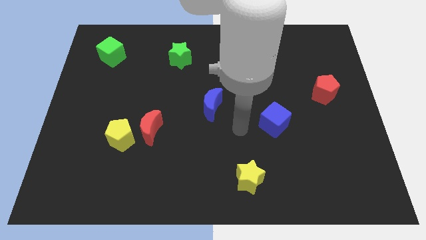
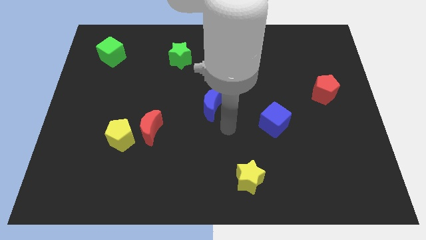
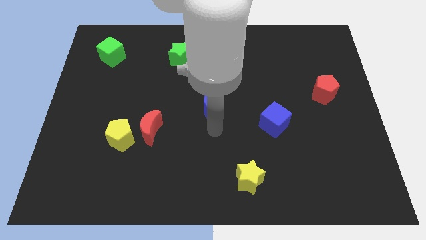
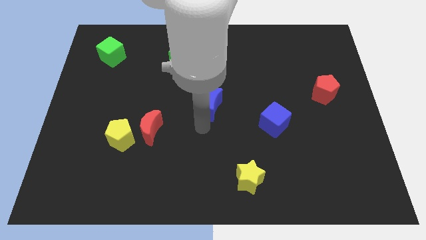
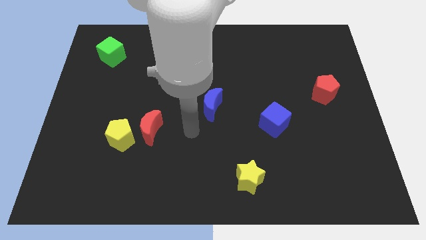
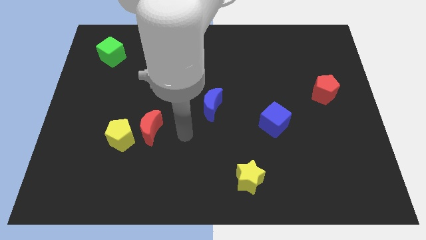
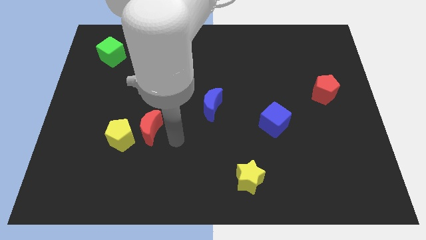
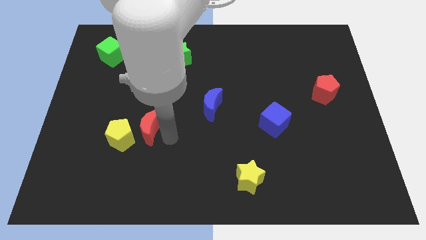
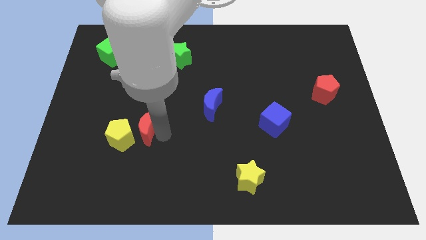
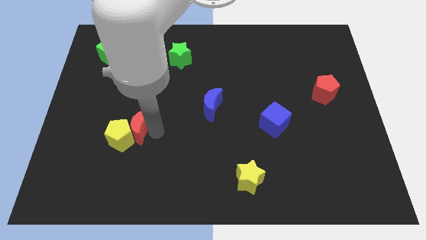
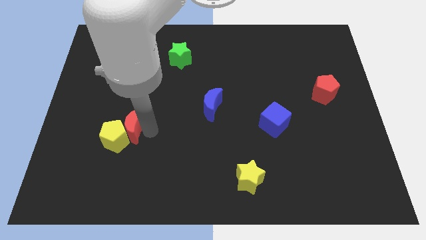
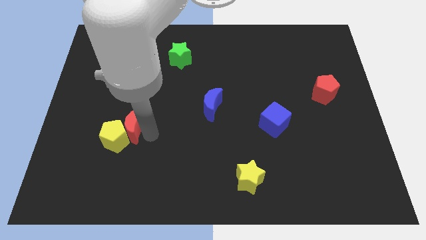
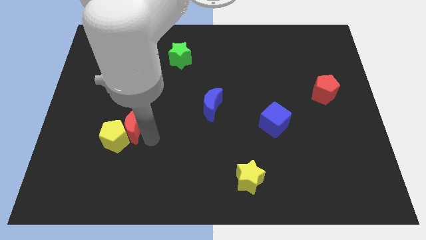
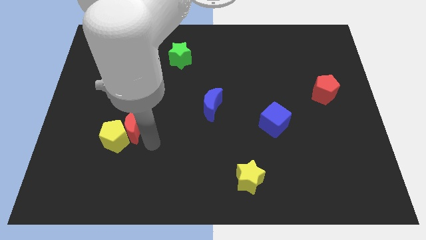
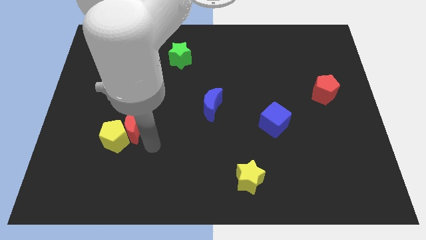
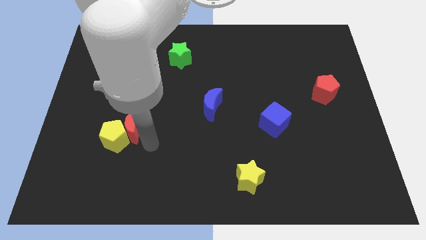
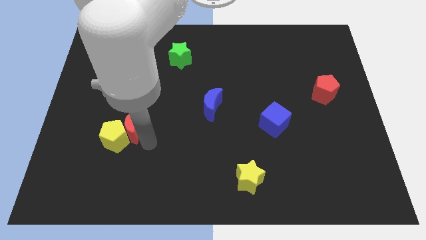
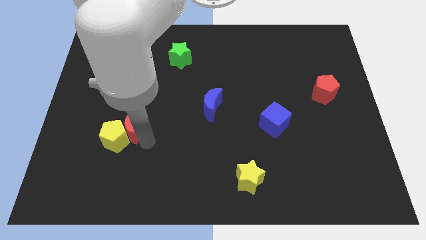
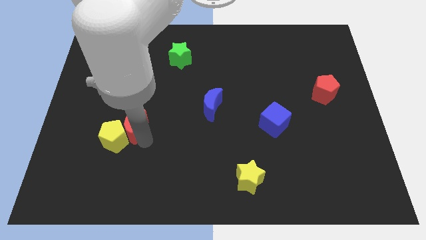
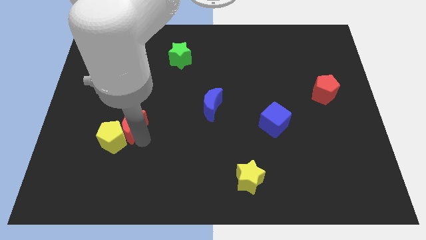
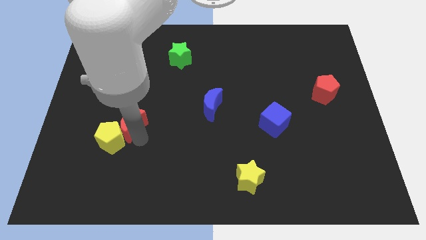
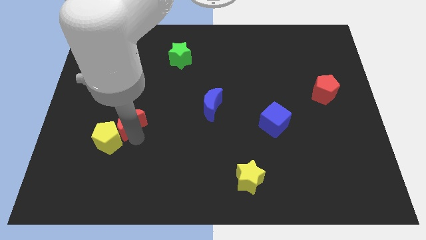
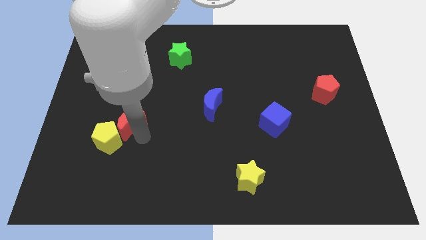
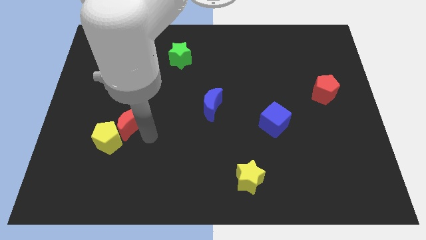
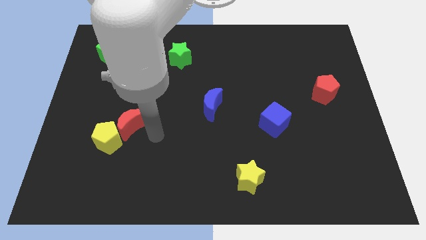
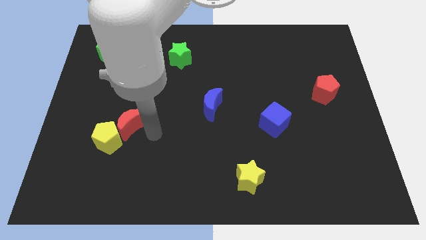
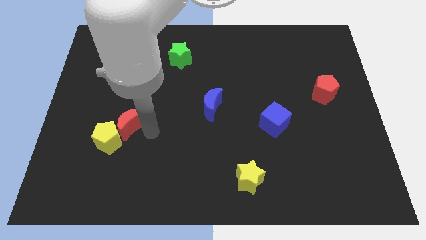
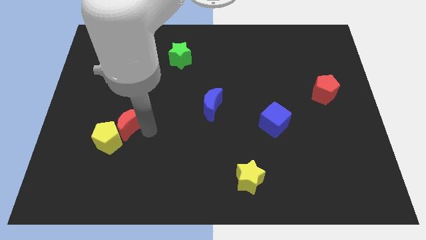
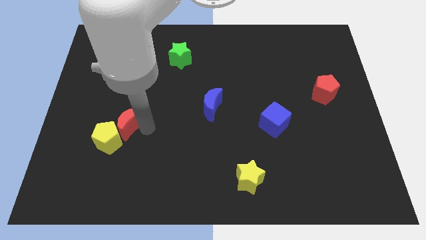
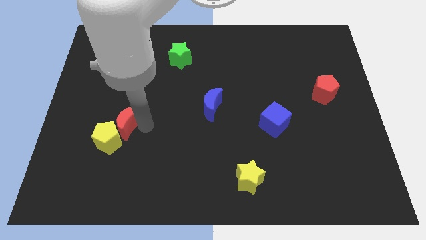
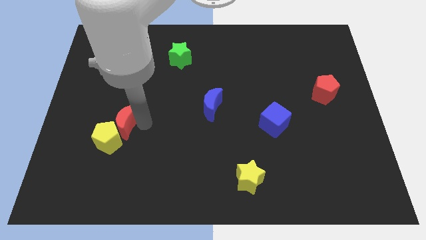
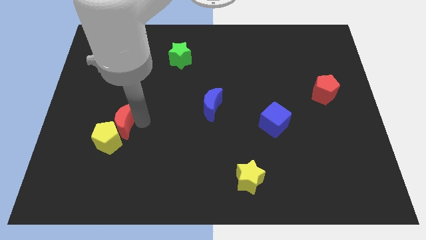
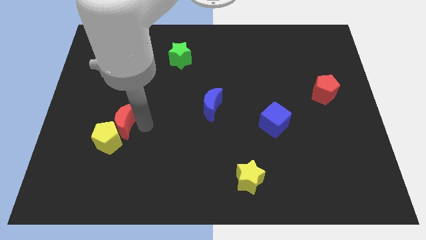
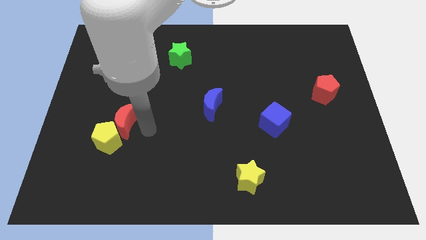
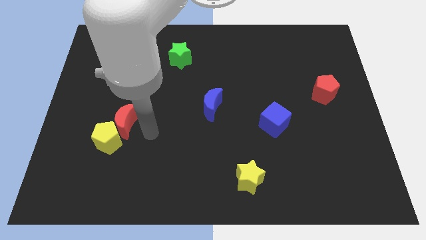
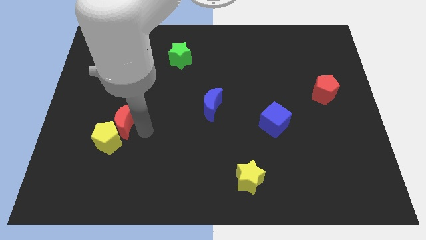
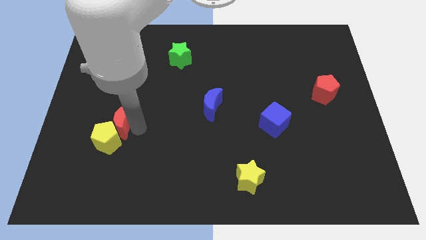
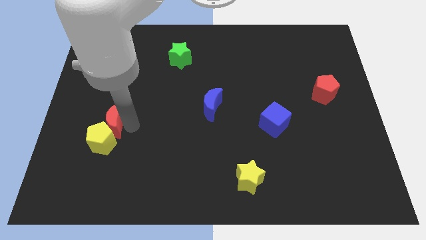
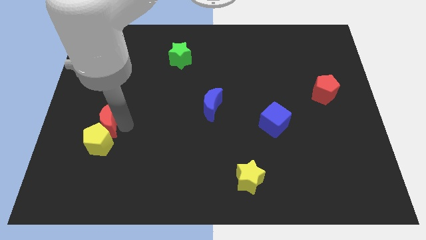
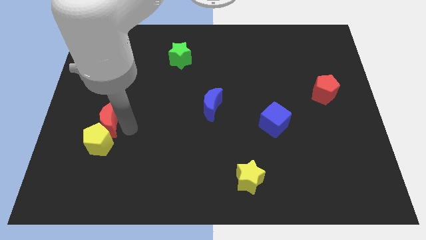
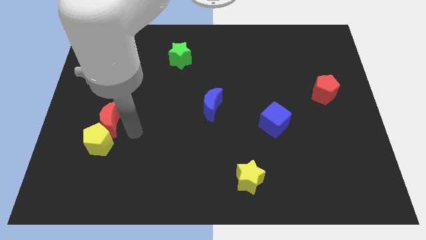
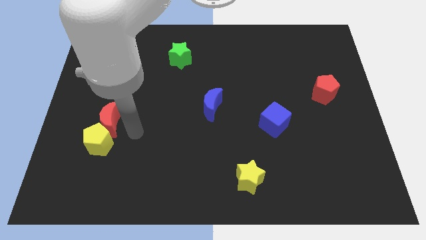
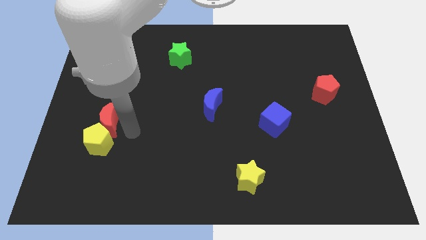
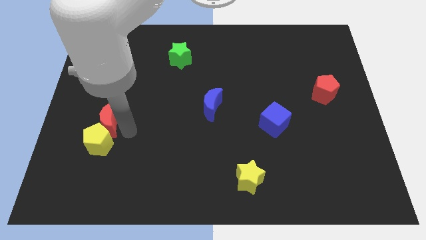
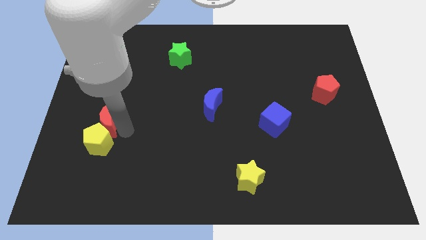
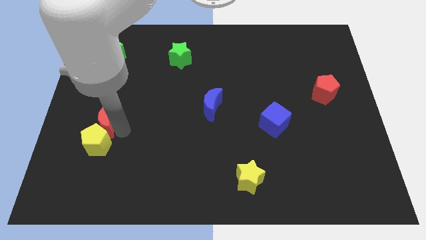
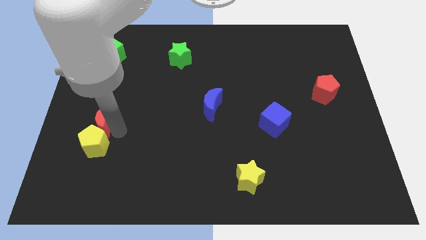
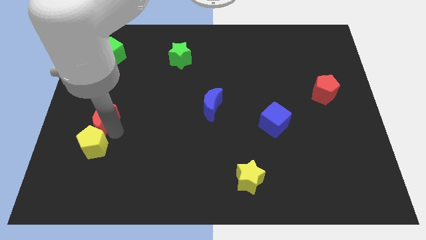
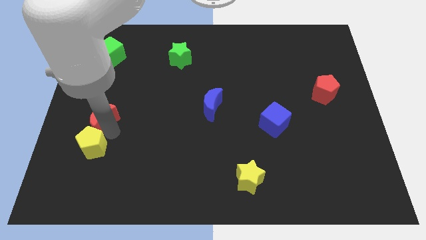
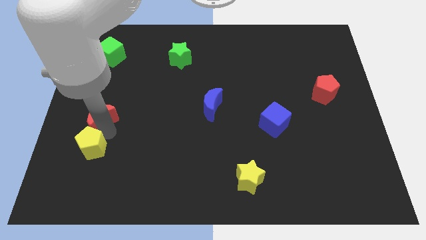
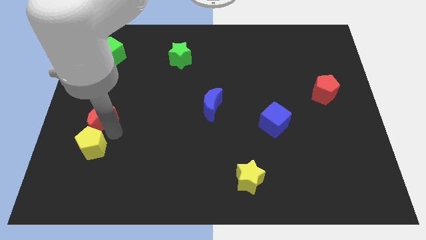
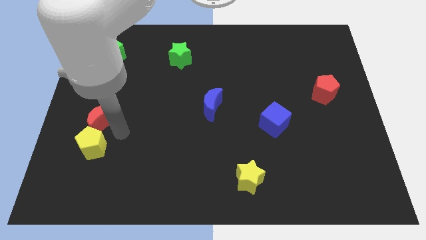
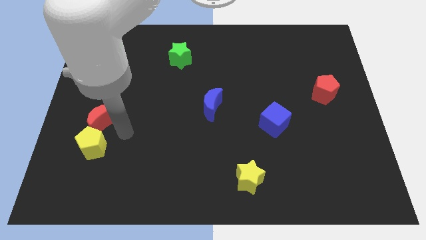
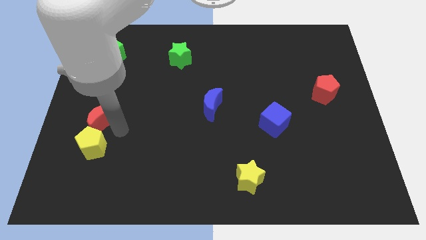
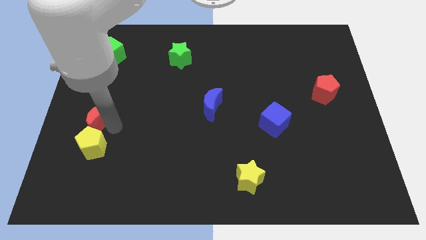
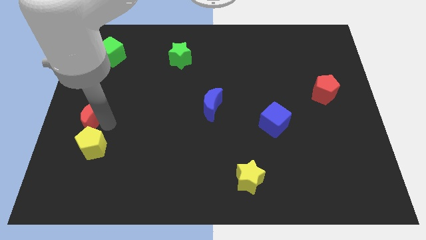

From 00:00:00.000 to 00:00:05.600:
put the red moon to the left side of the board
